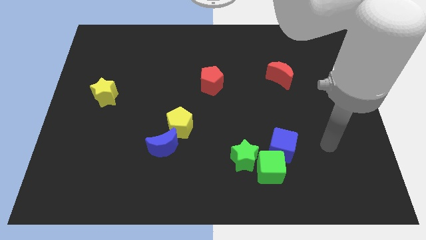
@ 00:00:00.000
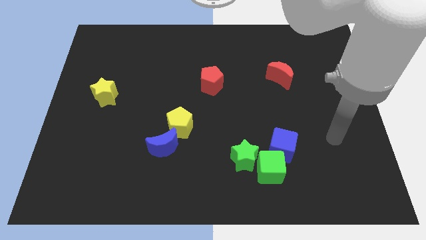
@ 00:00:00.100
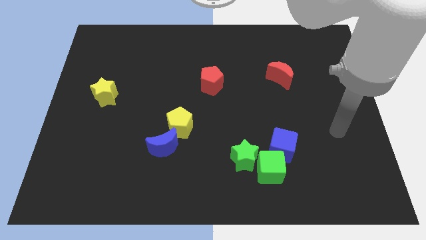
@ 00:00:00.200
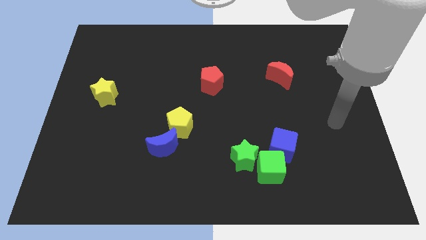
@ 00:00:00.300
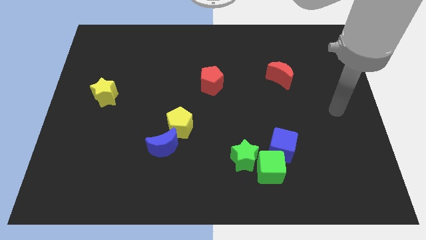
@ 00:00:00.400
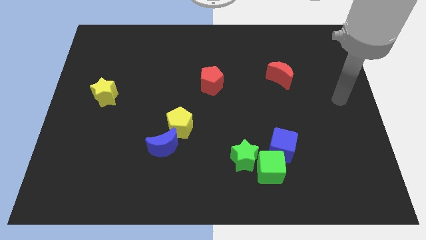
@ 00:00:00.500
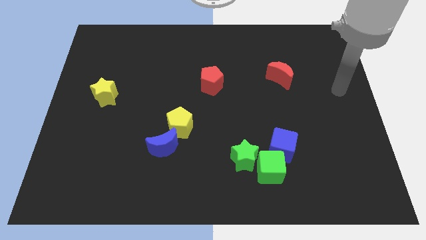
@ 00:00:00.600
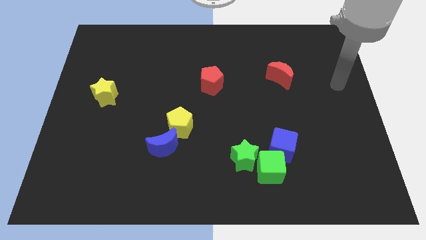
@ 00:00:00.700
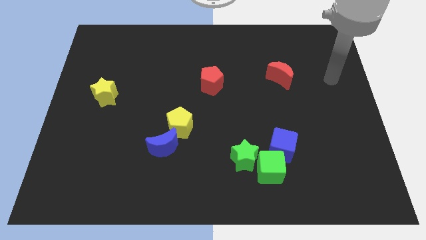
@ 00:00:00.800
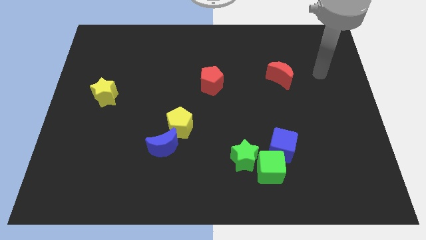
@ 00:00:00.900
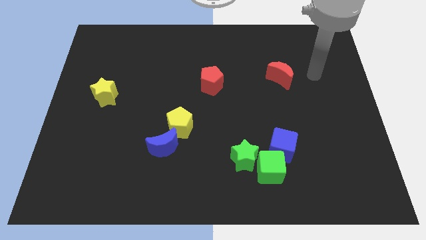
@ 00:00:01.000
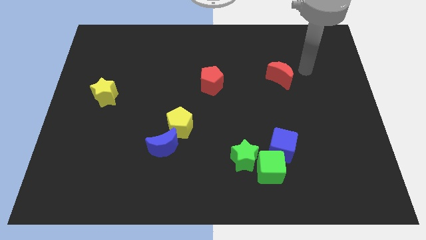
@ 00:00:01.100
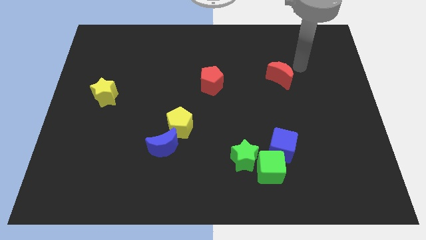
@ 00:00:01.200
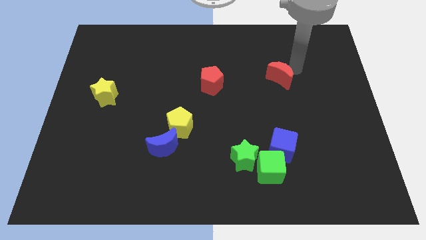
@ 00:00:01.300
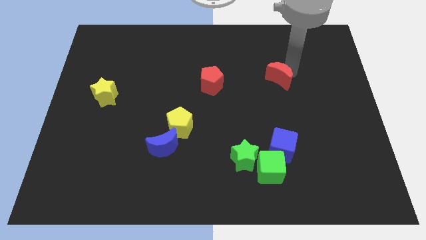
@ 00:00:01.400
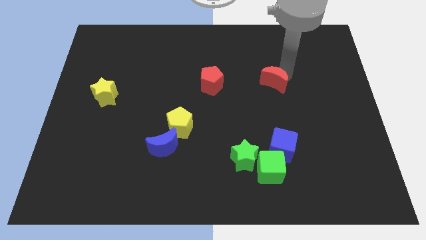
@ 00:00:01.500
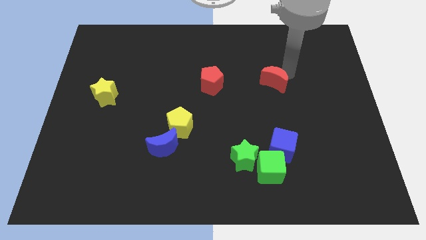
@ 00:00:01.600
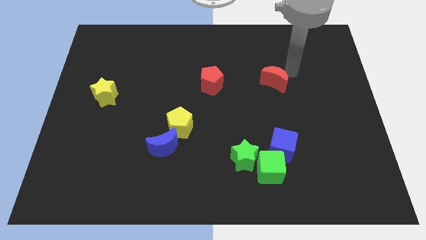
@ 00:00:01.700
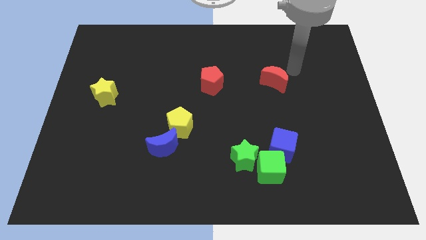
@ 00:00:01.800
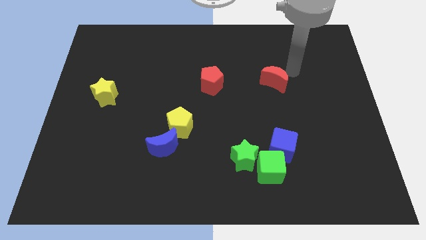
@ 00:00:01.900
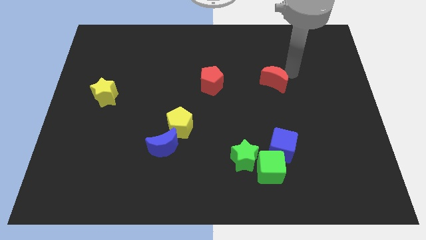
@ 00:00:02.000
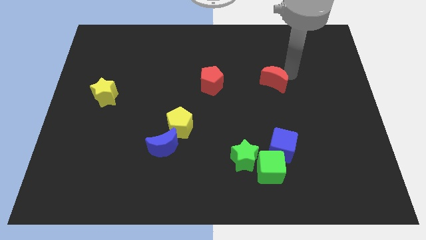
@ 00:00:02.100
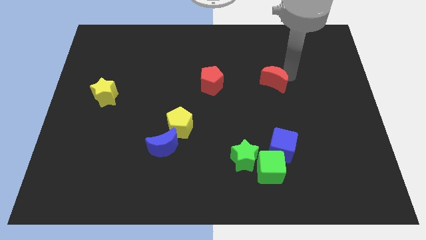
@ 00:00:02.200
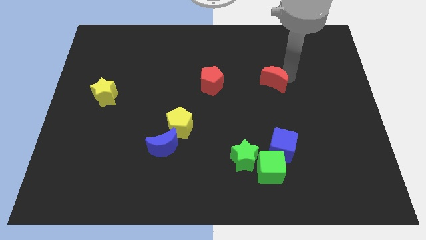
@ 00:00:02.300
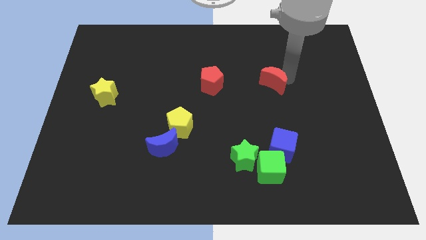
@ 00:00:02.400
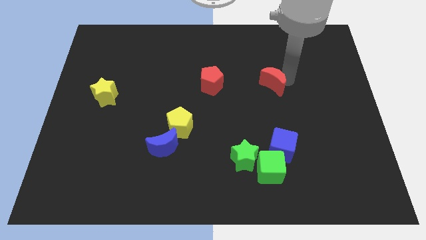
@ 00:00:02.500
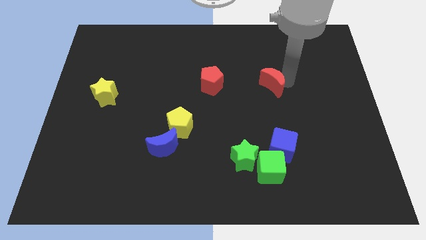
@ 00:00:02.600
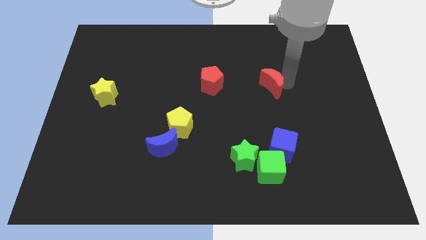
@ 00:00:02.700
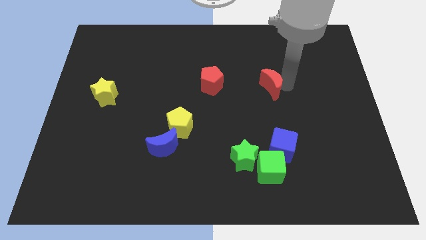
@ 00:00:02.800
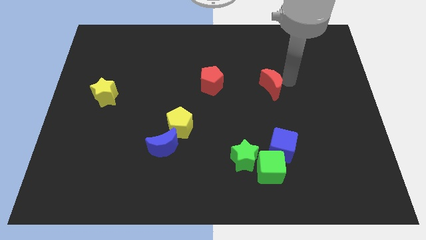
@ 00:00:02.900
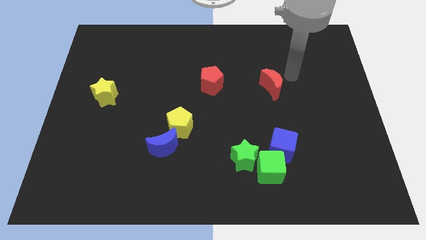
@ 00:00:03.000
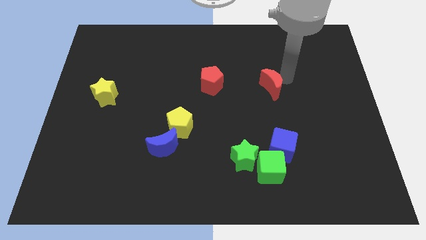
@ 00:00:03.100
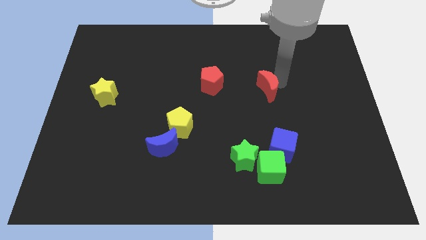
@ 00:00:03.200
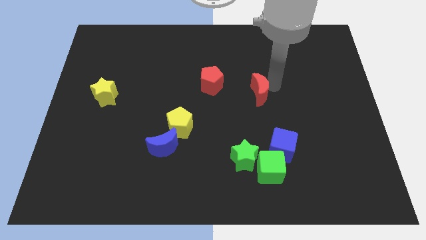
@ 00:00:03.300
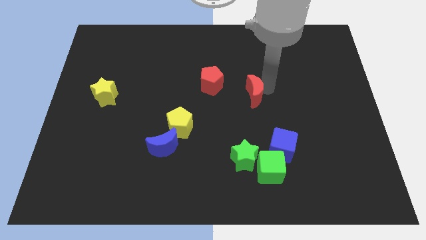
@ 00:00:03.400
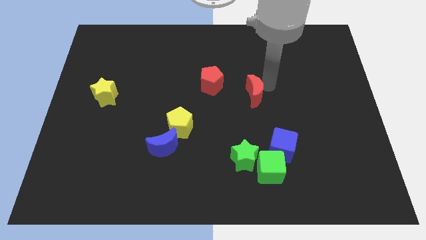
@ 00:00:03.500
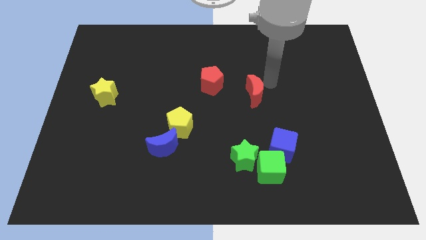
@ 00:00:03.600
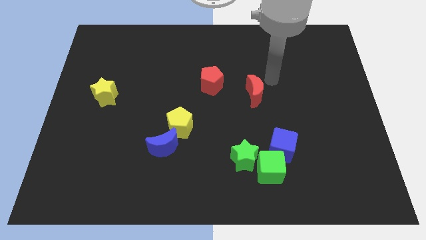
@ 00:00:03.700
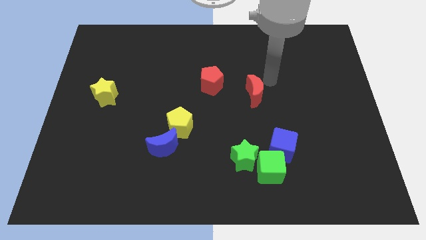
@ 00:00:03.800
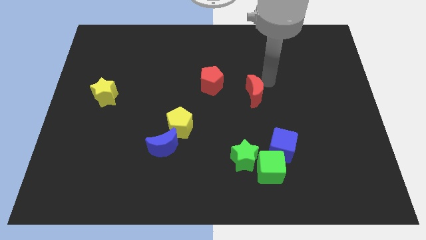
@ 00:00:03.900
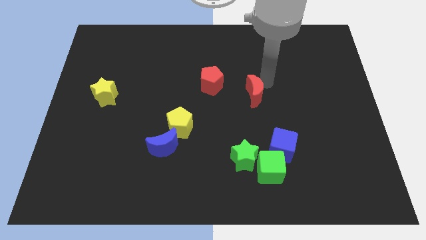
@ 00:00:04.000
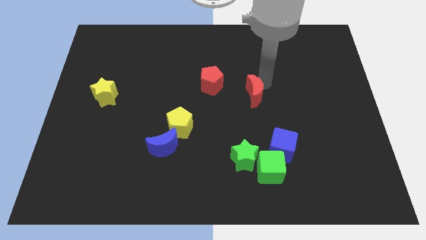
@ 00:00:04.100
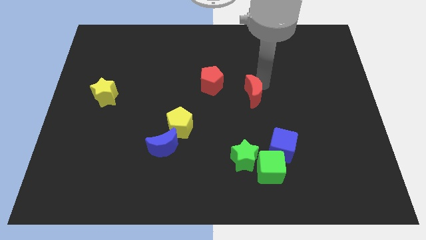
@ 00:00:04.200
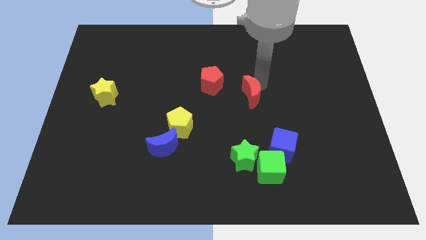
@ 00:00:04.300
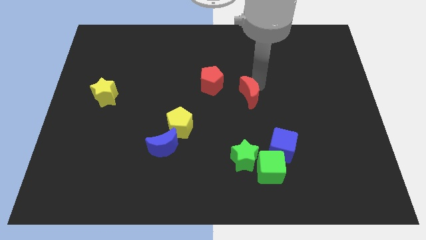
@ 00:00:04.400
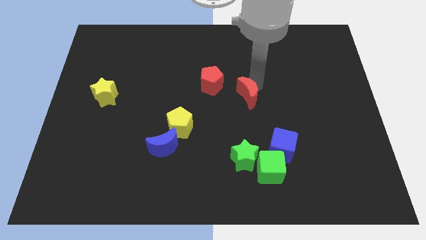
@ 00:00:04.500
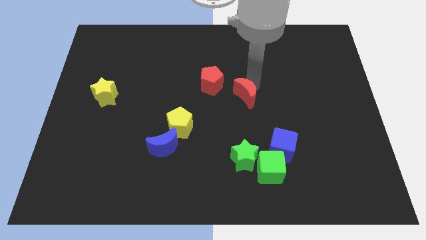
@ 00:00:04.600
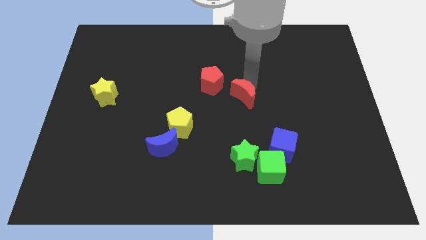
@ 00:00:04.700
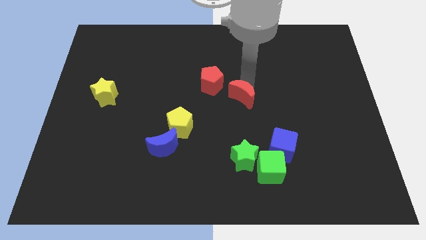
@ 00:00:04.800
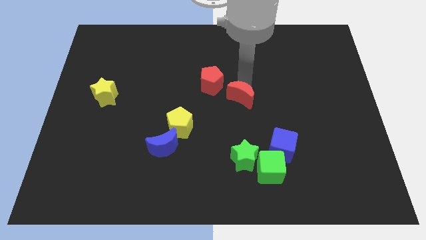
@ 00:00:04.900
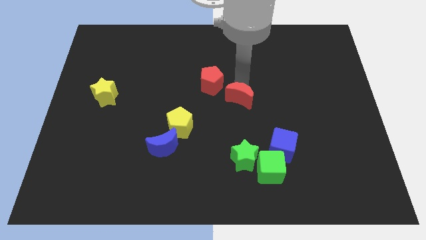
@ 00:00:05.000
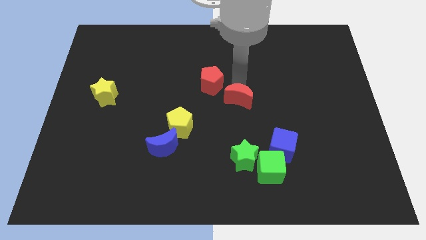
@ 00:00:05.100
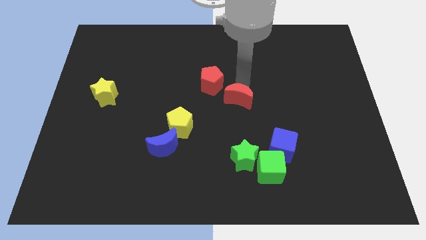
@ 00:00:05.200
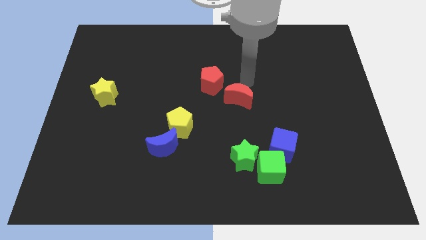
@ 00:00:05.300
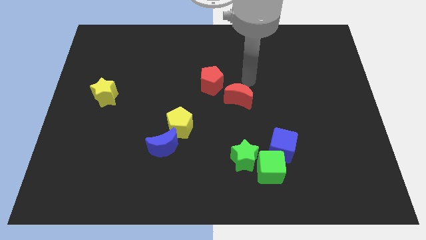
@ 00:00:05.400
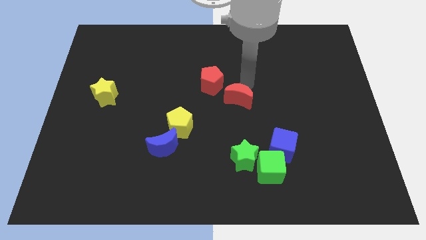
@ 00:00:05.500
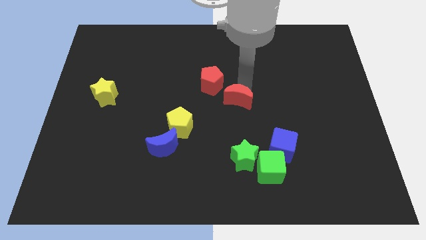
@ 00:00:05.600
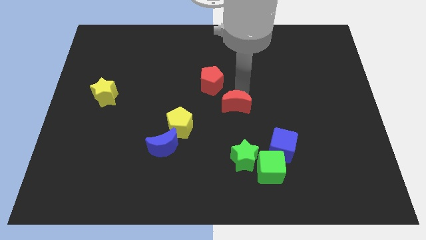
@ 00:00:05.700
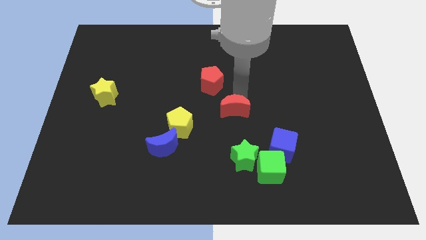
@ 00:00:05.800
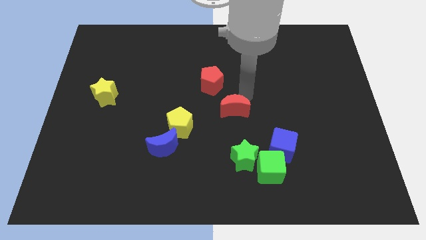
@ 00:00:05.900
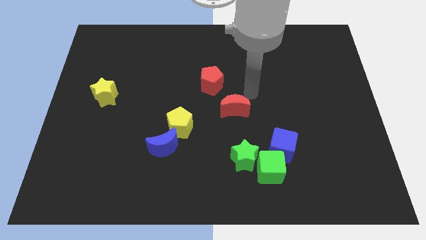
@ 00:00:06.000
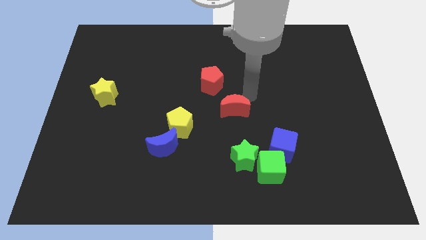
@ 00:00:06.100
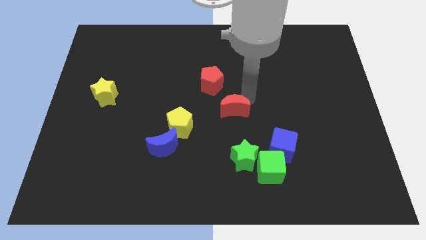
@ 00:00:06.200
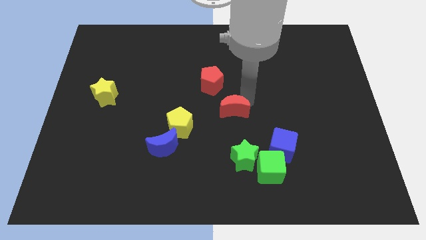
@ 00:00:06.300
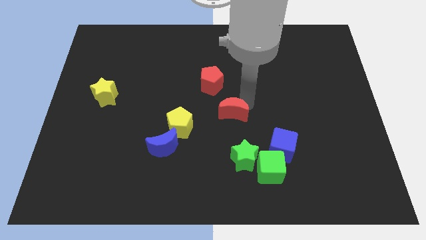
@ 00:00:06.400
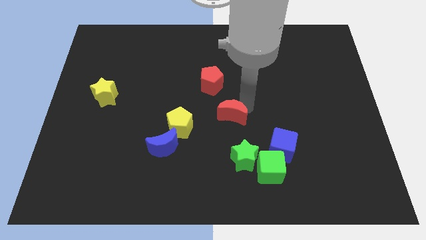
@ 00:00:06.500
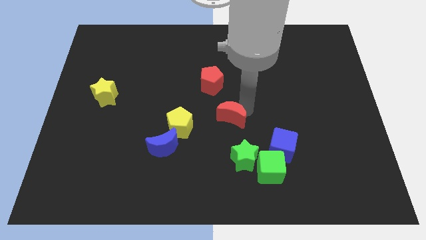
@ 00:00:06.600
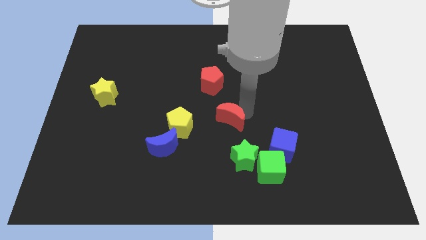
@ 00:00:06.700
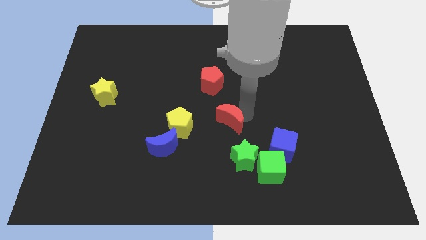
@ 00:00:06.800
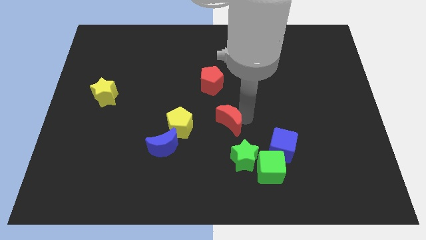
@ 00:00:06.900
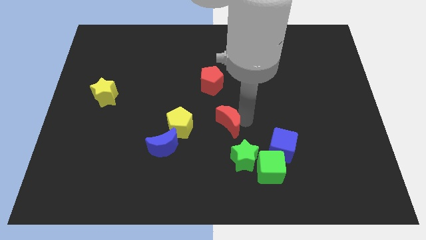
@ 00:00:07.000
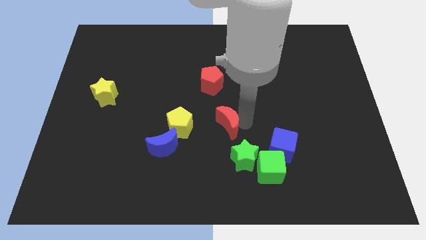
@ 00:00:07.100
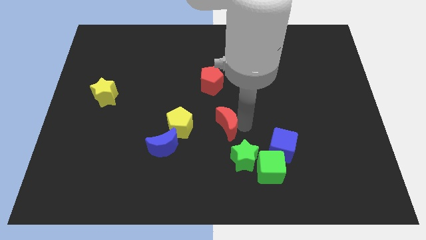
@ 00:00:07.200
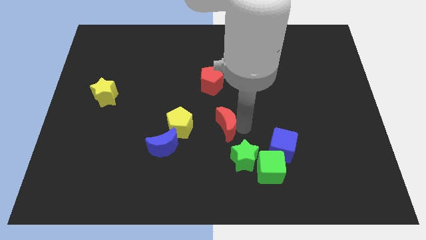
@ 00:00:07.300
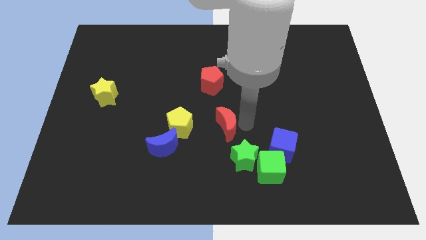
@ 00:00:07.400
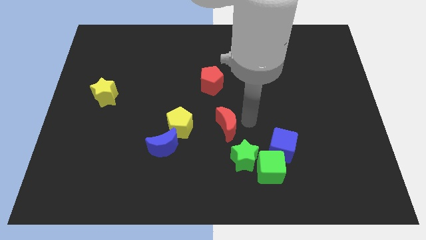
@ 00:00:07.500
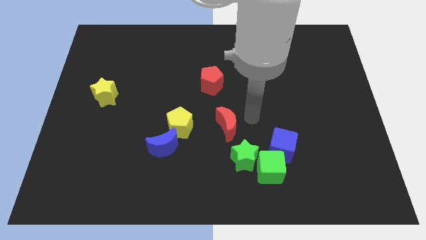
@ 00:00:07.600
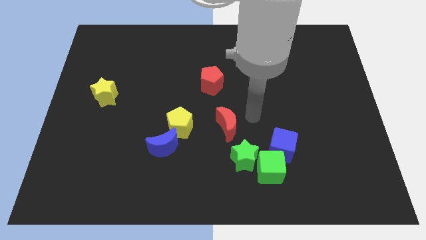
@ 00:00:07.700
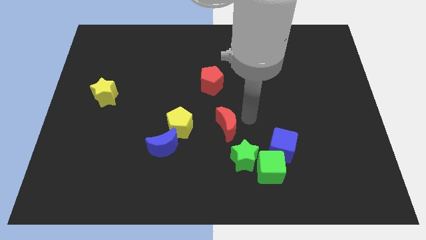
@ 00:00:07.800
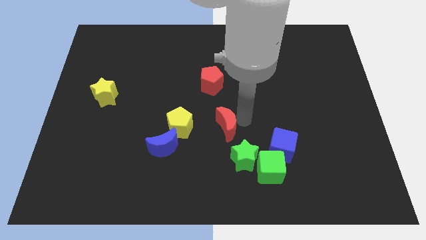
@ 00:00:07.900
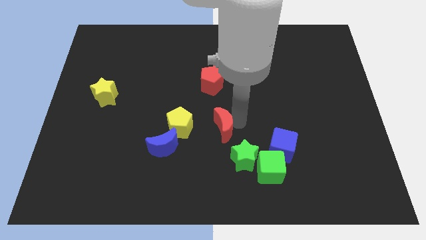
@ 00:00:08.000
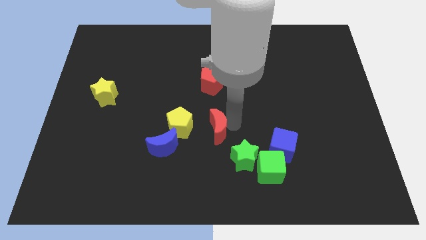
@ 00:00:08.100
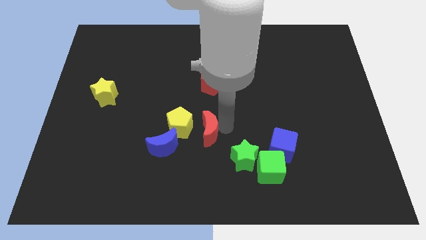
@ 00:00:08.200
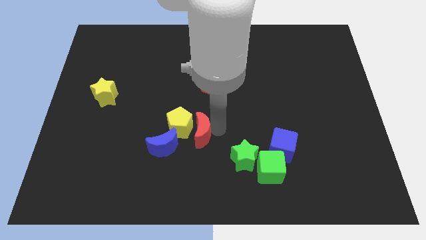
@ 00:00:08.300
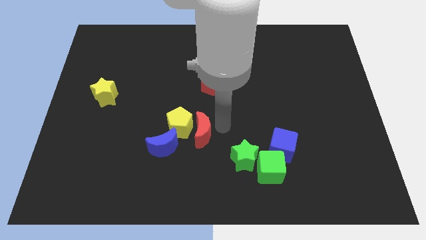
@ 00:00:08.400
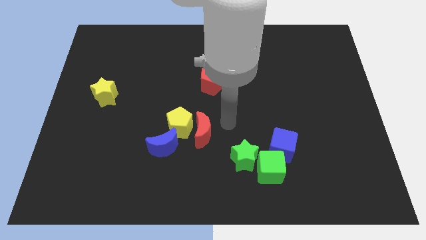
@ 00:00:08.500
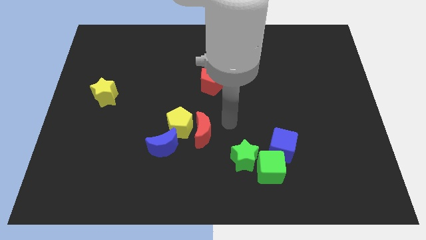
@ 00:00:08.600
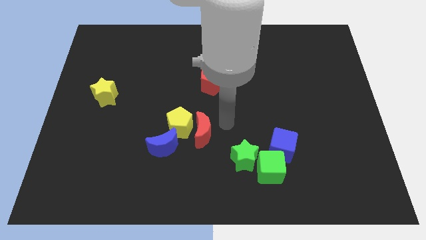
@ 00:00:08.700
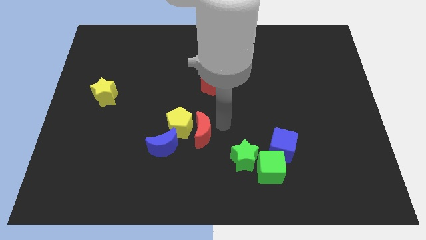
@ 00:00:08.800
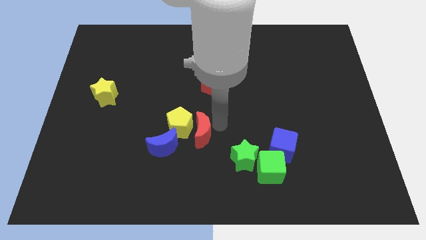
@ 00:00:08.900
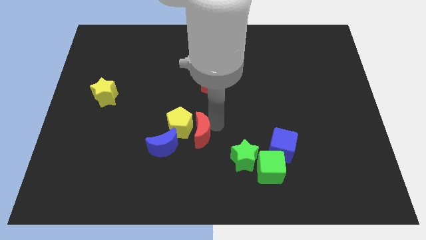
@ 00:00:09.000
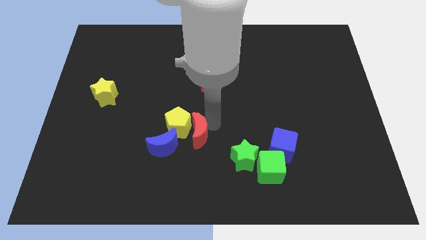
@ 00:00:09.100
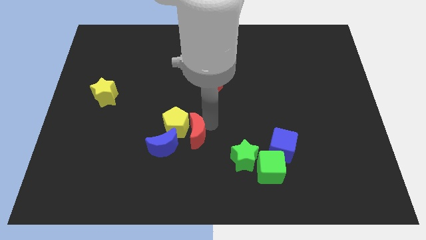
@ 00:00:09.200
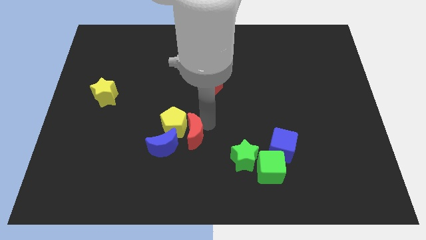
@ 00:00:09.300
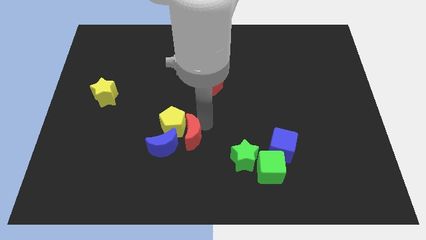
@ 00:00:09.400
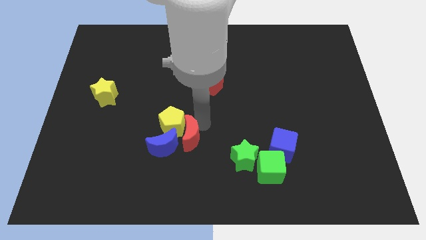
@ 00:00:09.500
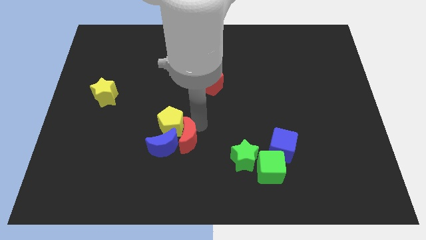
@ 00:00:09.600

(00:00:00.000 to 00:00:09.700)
put the red moon to the blue moon
